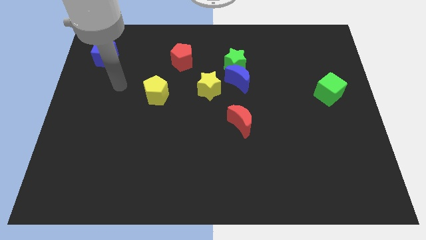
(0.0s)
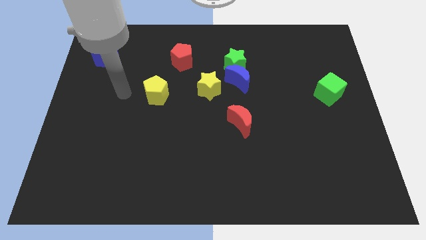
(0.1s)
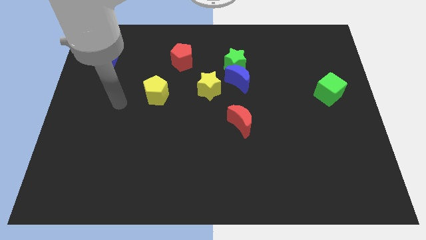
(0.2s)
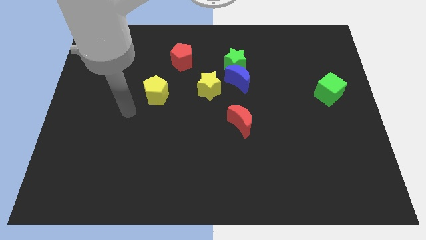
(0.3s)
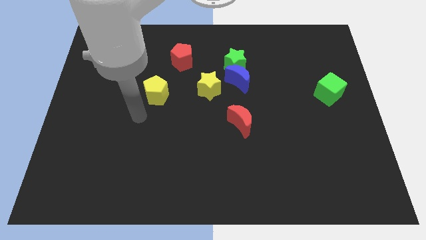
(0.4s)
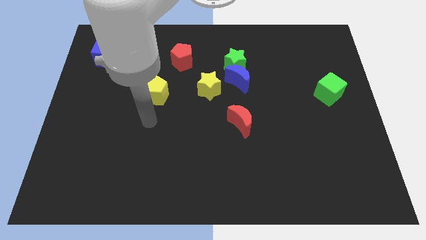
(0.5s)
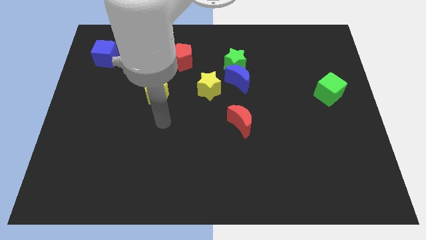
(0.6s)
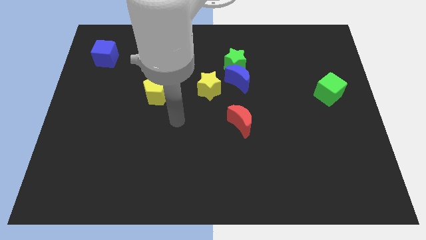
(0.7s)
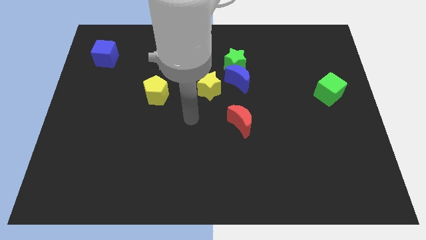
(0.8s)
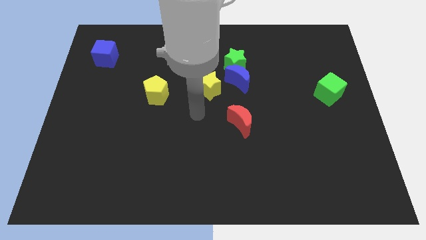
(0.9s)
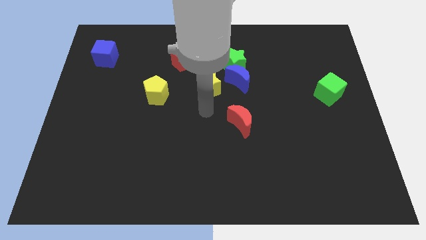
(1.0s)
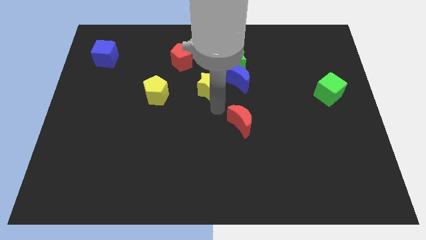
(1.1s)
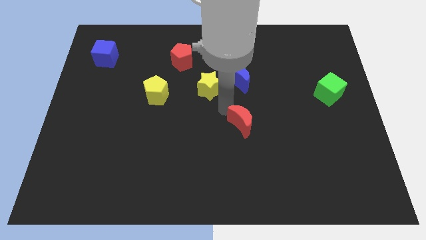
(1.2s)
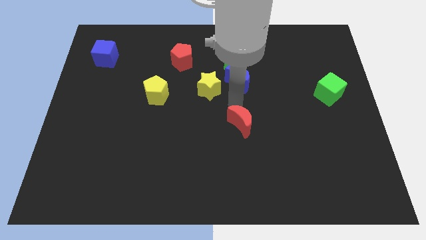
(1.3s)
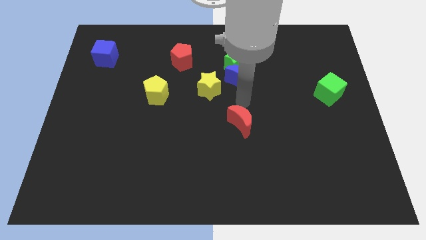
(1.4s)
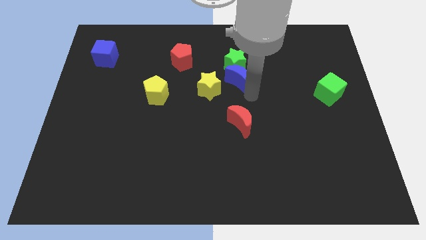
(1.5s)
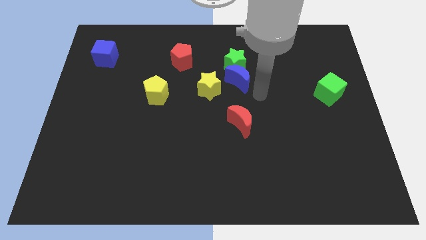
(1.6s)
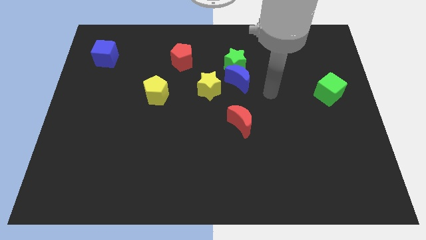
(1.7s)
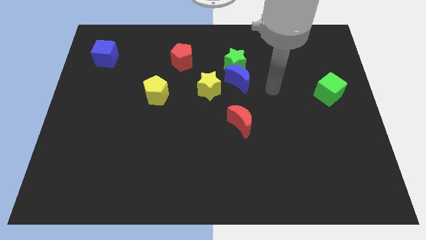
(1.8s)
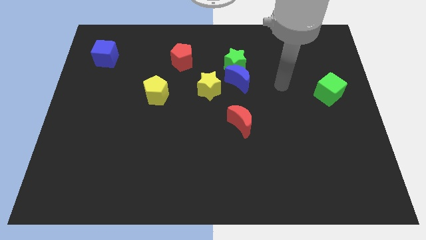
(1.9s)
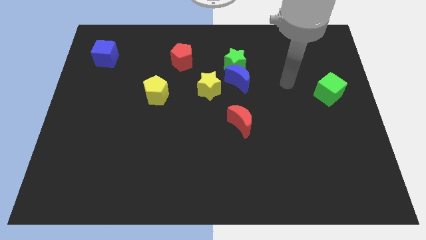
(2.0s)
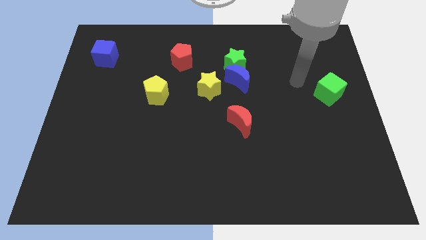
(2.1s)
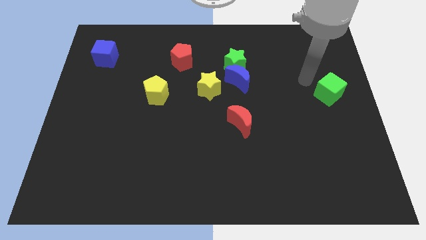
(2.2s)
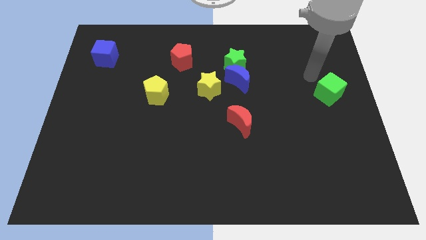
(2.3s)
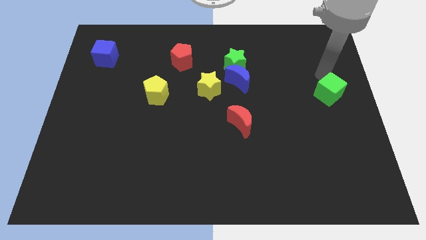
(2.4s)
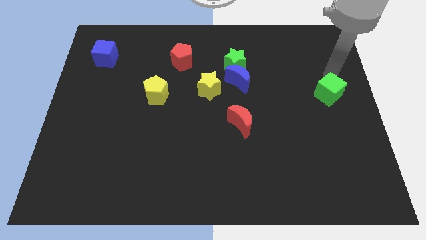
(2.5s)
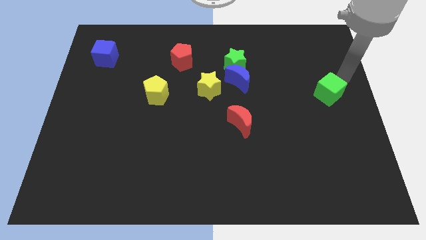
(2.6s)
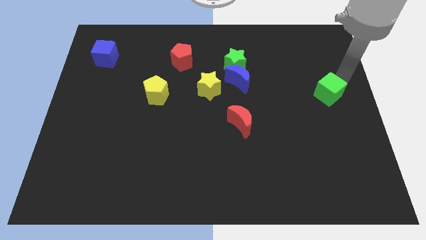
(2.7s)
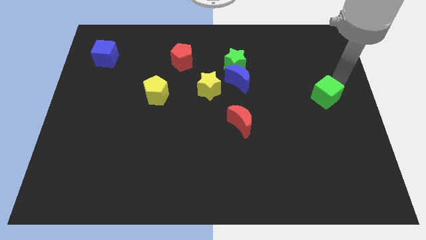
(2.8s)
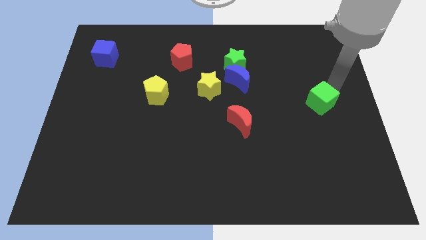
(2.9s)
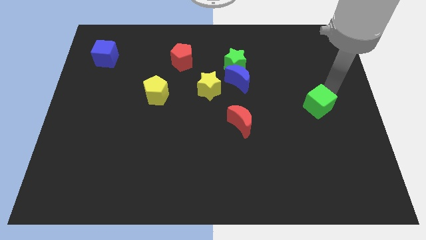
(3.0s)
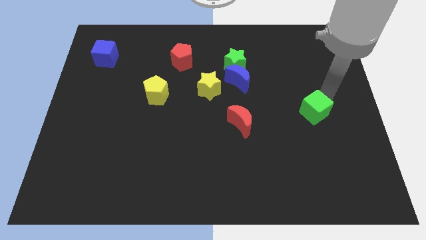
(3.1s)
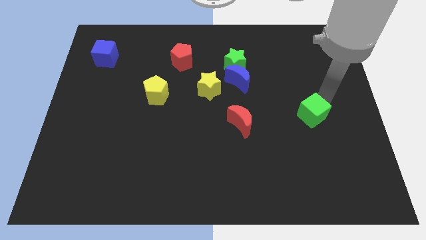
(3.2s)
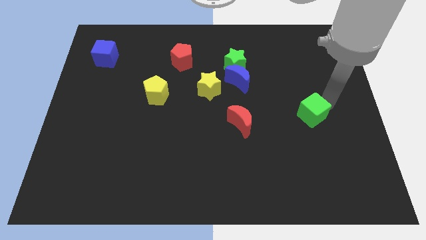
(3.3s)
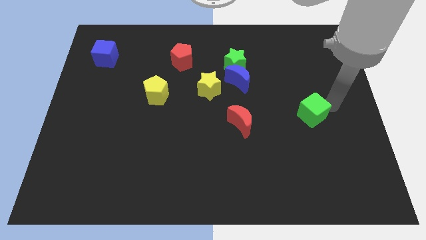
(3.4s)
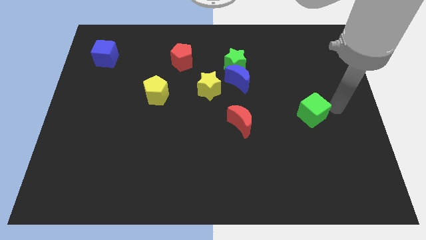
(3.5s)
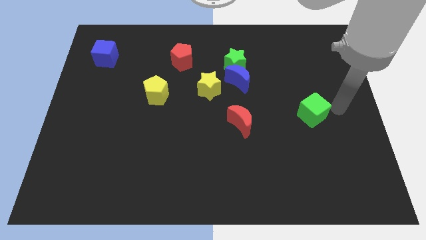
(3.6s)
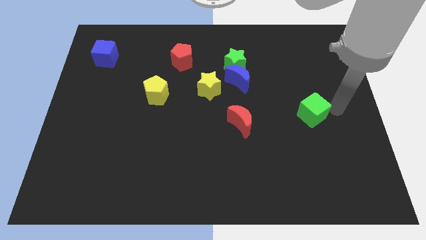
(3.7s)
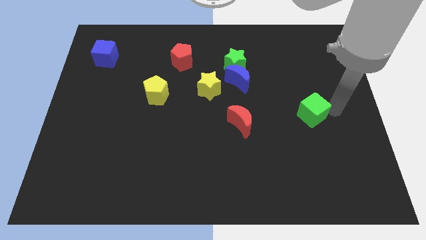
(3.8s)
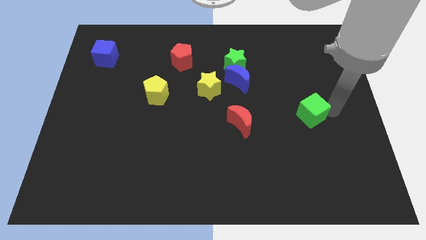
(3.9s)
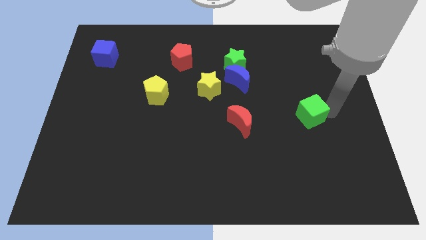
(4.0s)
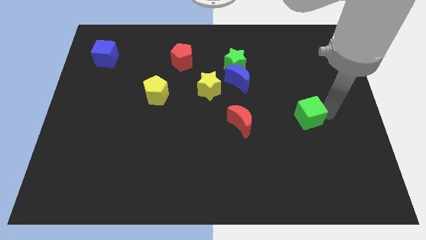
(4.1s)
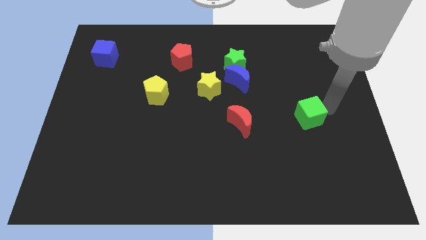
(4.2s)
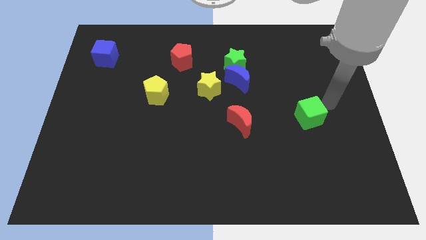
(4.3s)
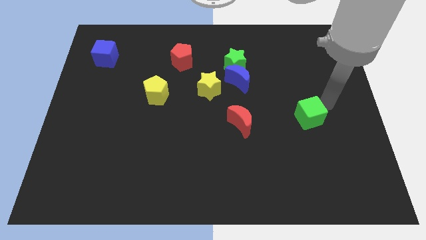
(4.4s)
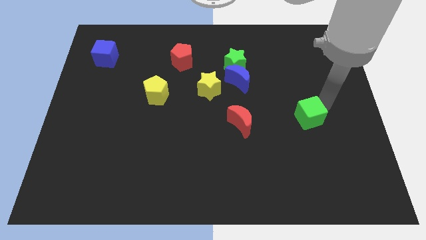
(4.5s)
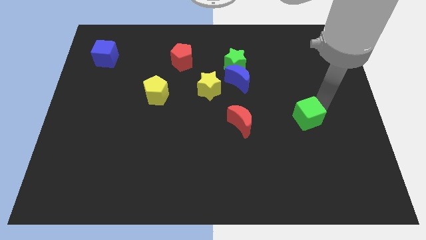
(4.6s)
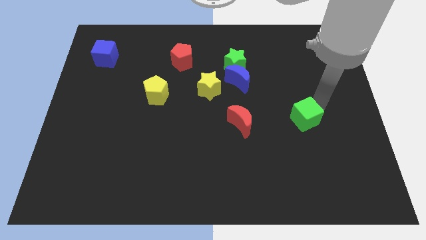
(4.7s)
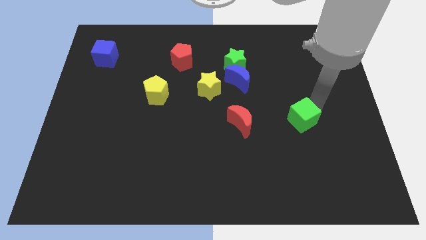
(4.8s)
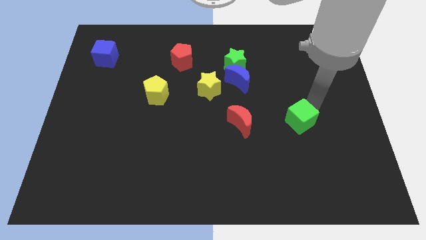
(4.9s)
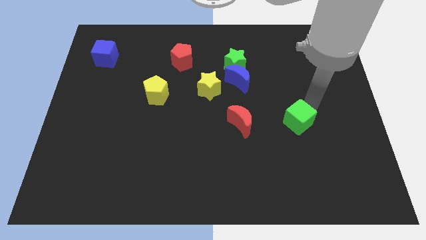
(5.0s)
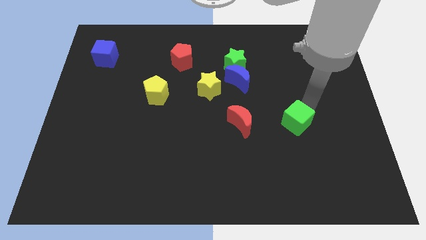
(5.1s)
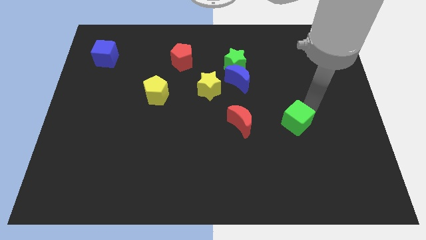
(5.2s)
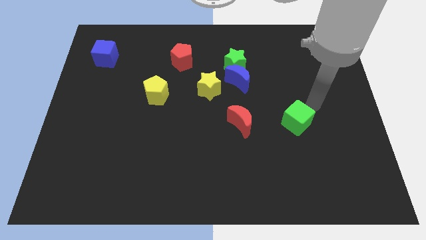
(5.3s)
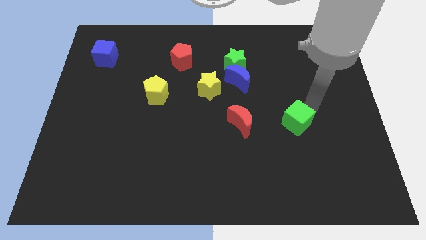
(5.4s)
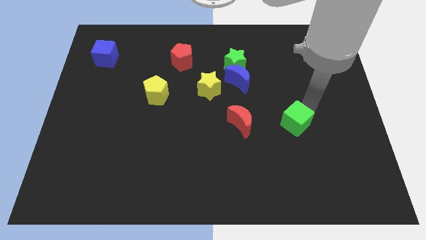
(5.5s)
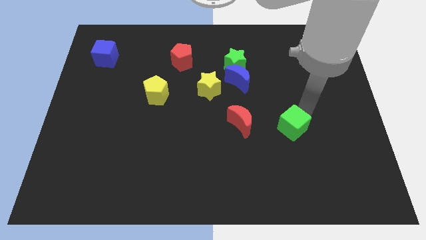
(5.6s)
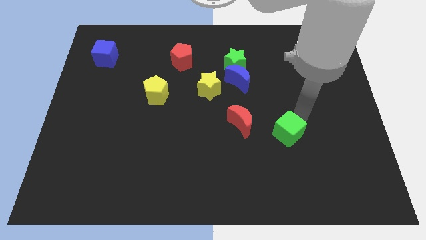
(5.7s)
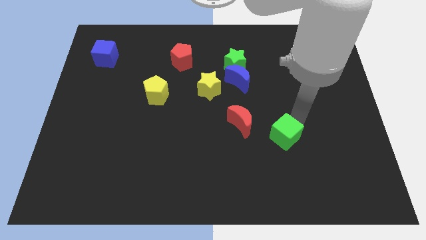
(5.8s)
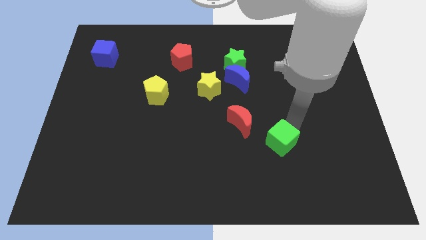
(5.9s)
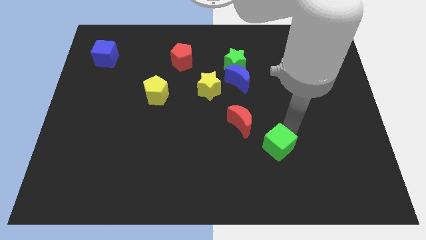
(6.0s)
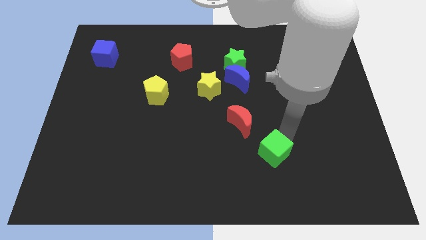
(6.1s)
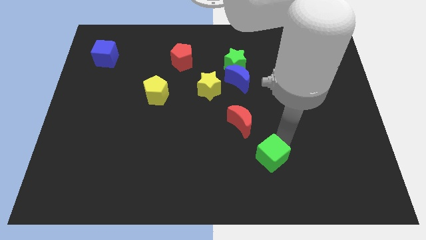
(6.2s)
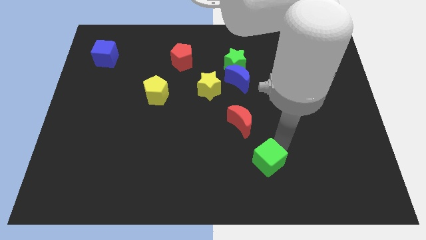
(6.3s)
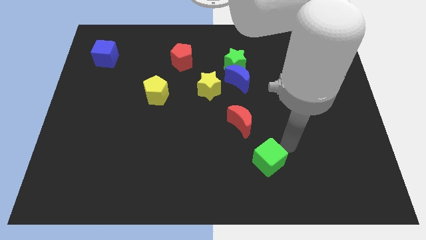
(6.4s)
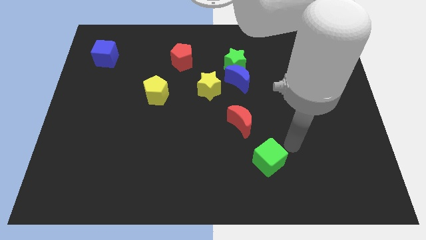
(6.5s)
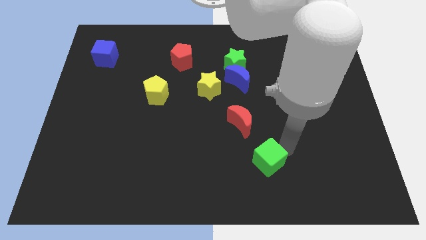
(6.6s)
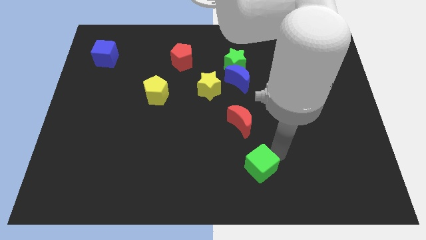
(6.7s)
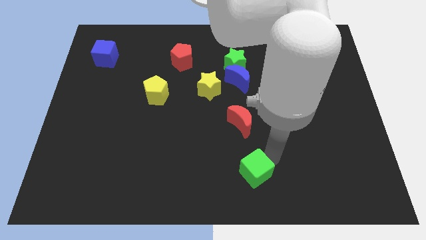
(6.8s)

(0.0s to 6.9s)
put the green cube to the bottom side
